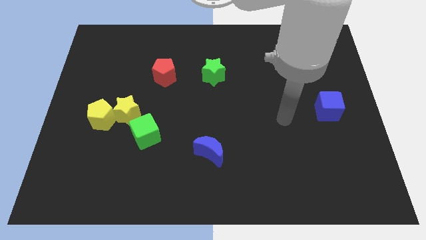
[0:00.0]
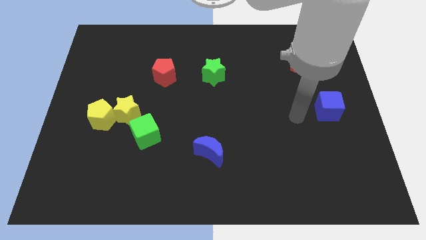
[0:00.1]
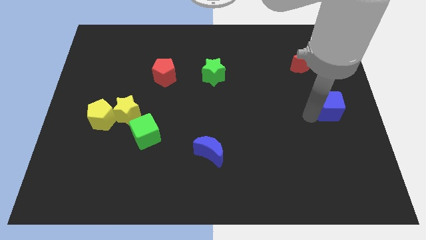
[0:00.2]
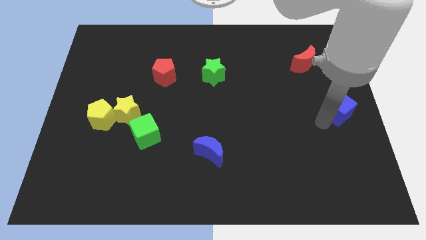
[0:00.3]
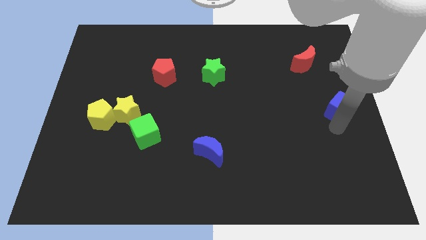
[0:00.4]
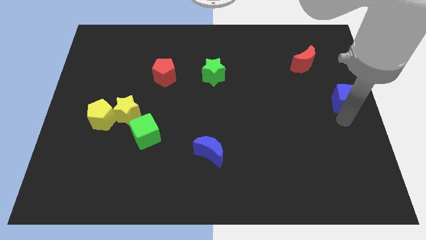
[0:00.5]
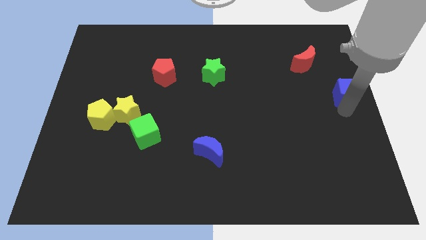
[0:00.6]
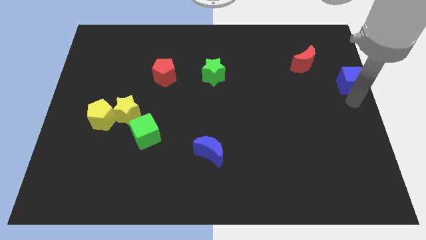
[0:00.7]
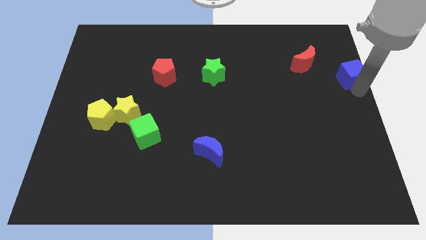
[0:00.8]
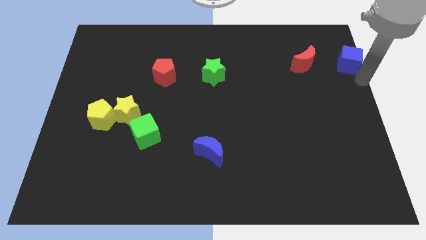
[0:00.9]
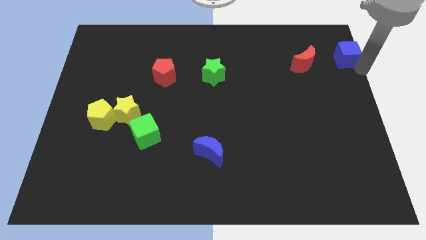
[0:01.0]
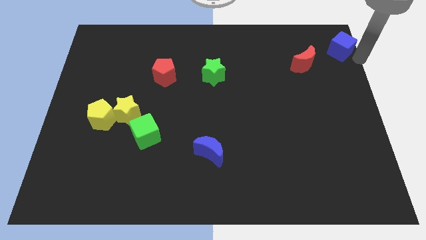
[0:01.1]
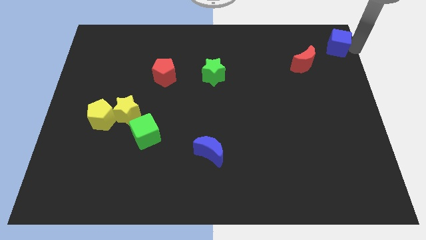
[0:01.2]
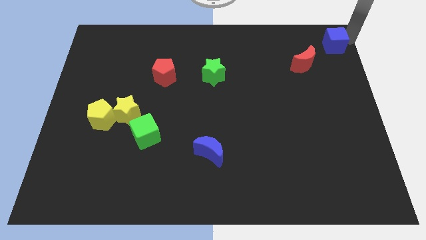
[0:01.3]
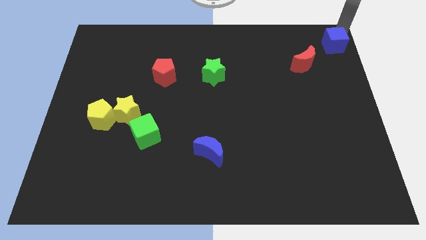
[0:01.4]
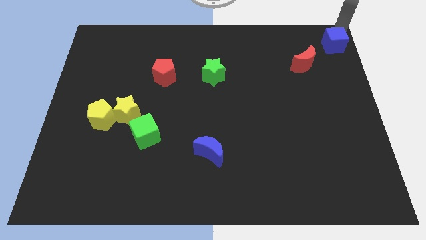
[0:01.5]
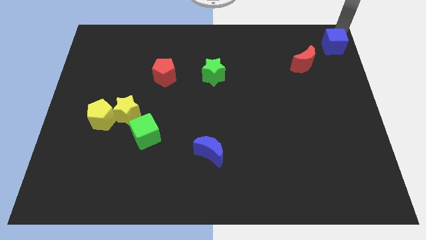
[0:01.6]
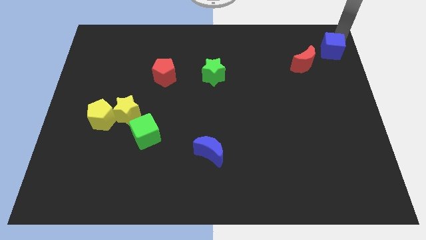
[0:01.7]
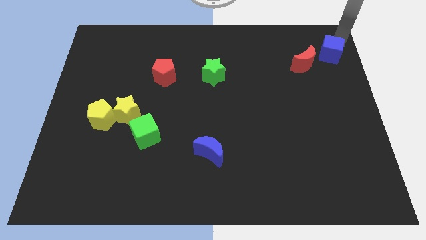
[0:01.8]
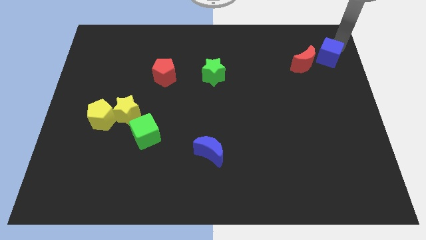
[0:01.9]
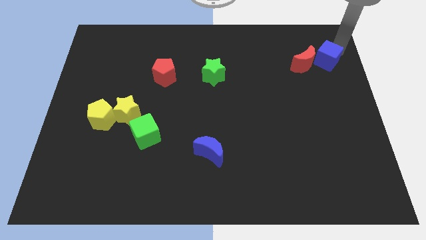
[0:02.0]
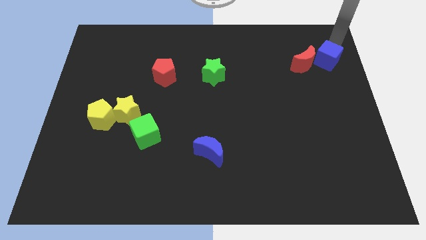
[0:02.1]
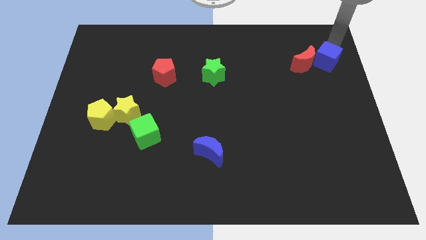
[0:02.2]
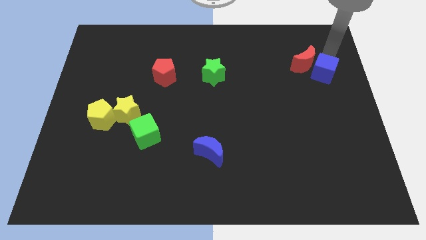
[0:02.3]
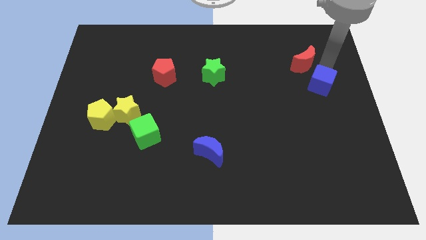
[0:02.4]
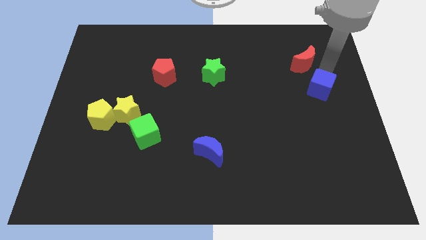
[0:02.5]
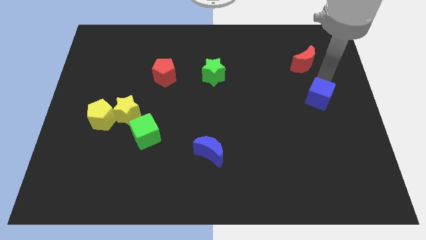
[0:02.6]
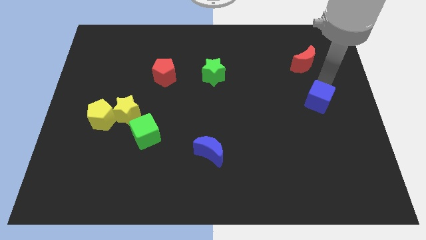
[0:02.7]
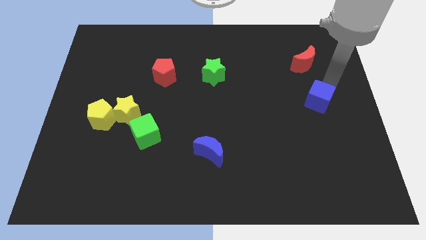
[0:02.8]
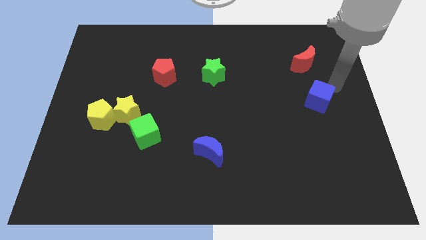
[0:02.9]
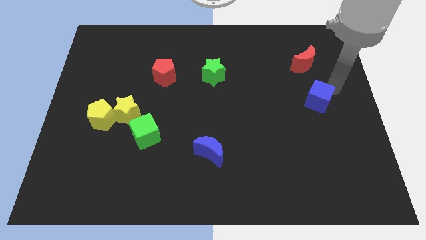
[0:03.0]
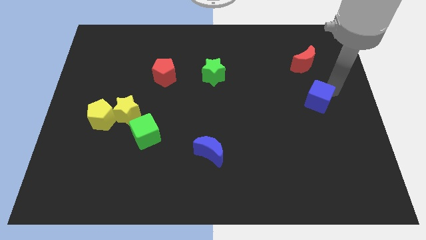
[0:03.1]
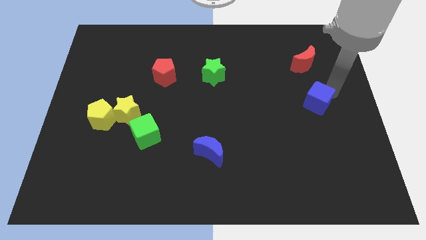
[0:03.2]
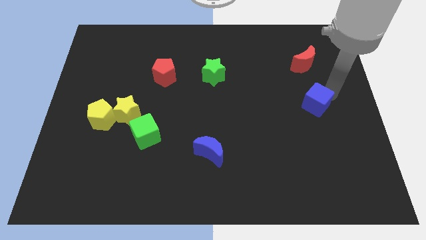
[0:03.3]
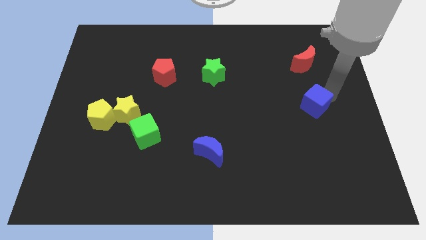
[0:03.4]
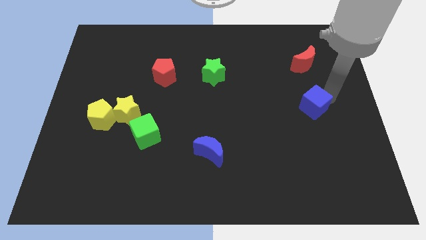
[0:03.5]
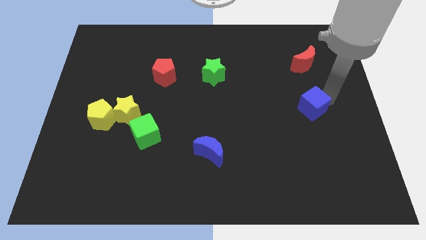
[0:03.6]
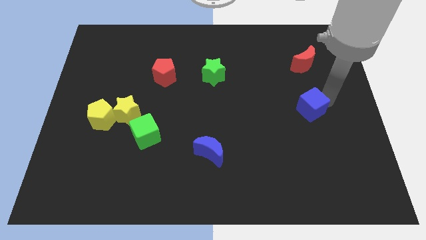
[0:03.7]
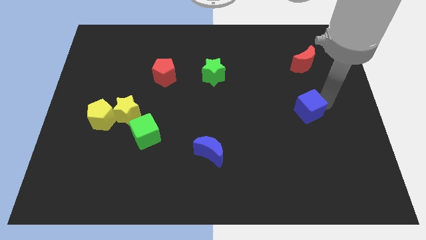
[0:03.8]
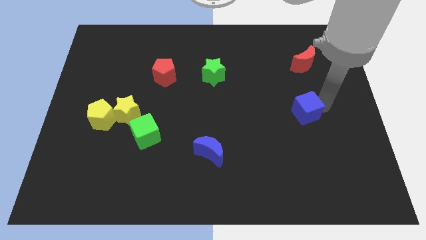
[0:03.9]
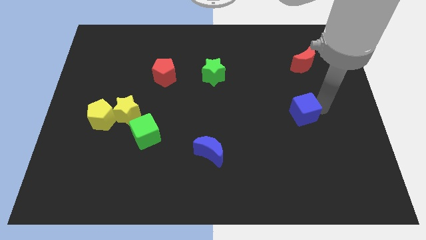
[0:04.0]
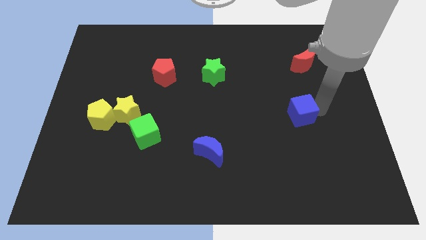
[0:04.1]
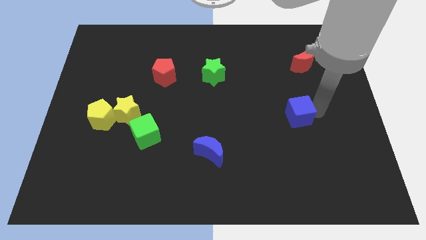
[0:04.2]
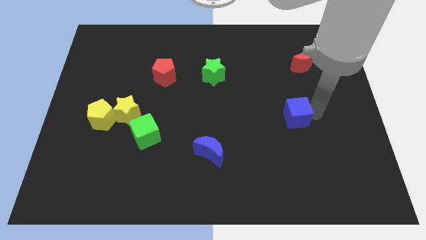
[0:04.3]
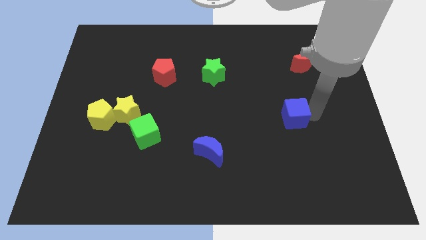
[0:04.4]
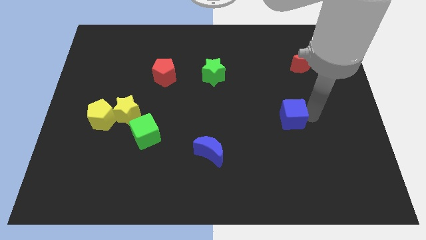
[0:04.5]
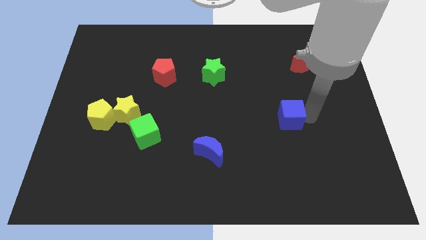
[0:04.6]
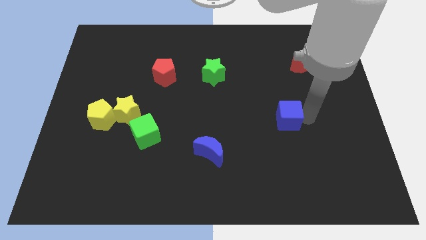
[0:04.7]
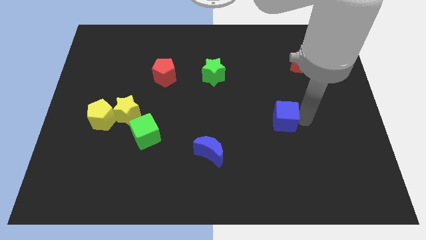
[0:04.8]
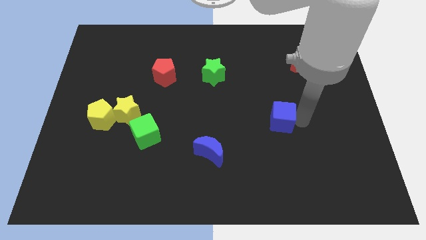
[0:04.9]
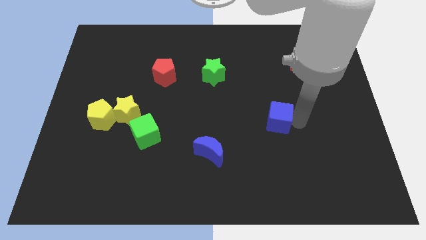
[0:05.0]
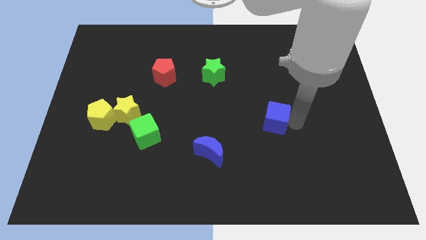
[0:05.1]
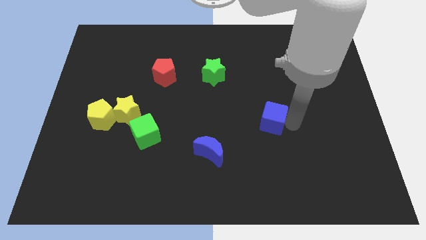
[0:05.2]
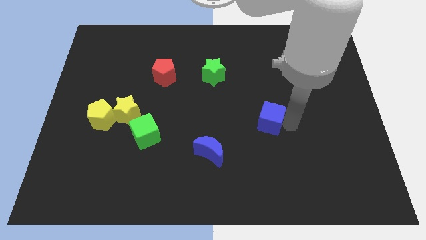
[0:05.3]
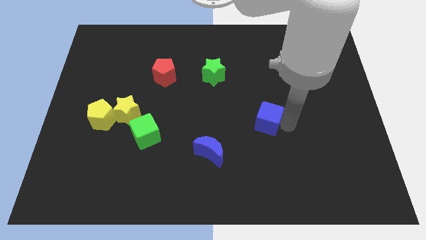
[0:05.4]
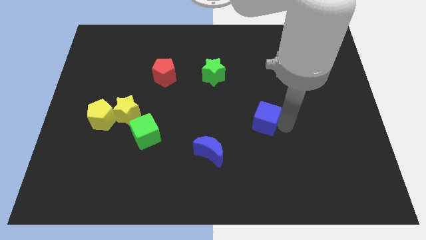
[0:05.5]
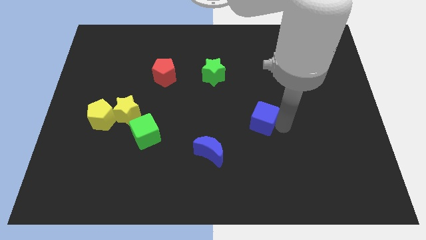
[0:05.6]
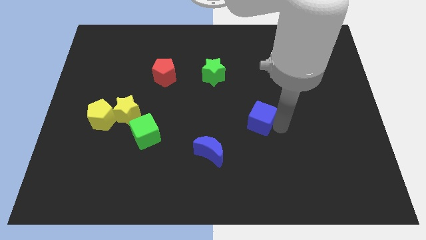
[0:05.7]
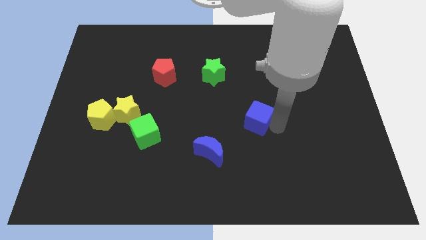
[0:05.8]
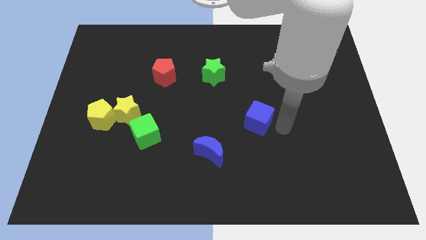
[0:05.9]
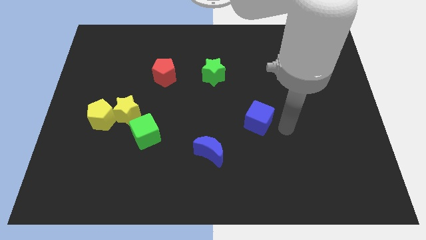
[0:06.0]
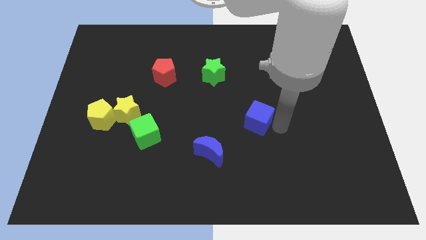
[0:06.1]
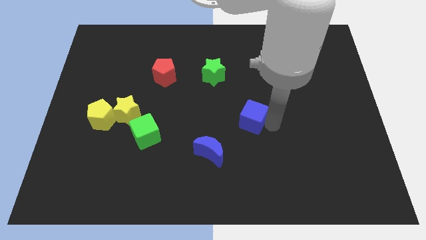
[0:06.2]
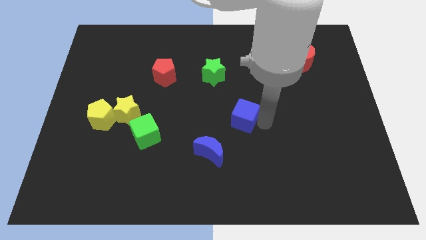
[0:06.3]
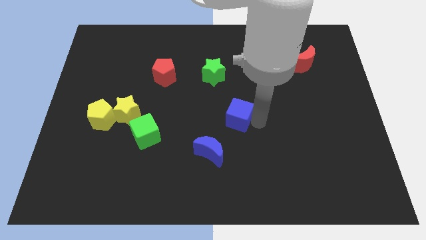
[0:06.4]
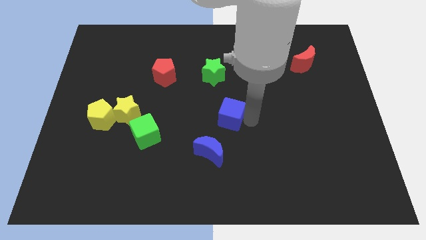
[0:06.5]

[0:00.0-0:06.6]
slide the blue cube to the top side of the blue moon

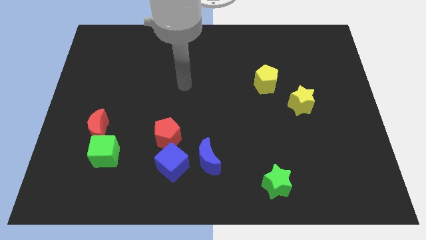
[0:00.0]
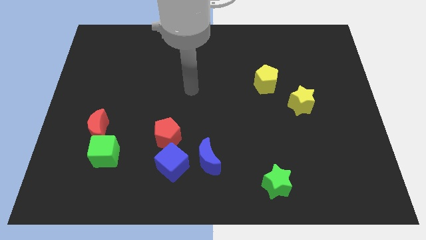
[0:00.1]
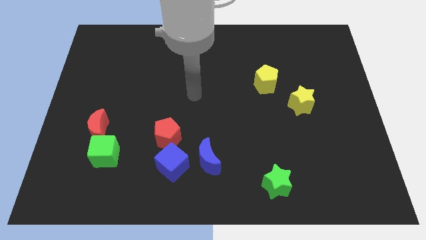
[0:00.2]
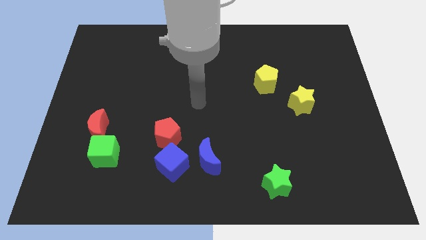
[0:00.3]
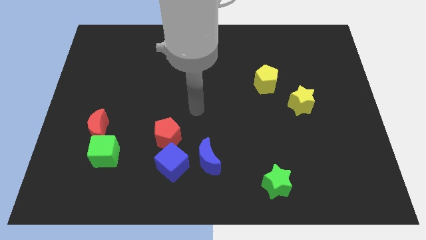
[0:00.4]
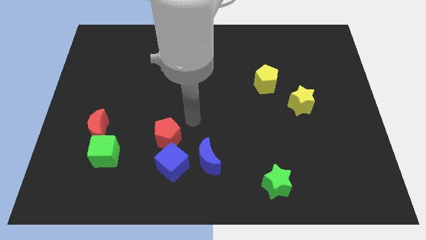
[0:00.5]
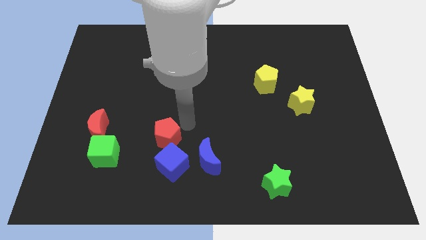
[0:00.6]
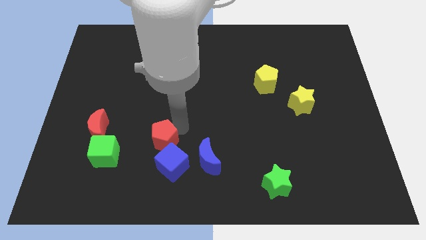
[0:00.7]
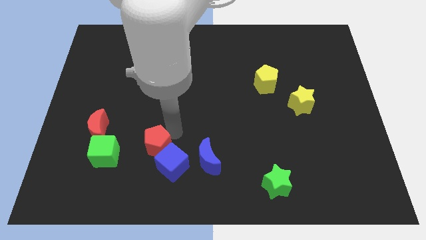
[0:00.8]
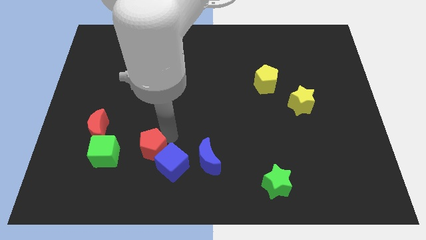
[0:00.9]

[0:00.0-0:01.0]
push the red pentagon left of the blue cube
